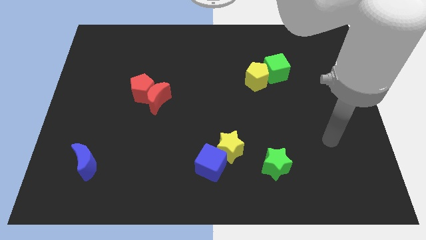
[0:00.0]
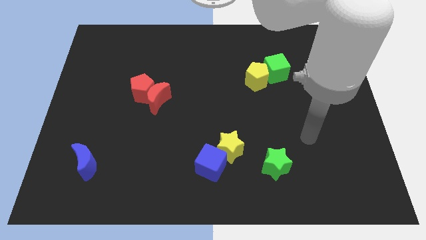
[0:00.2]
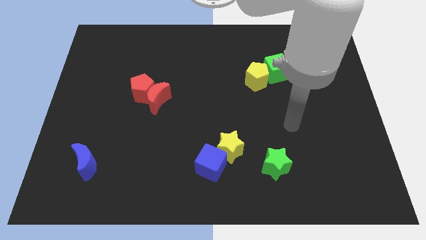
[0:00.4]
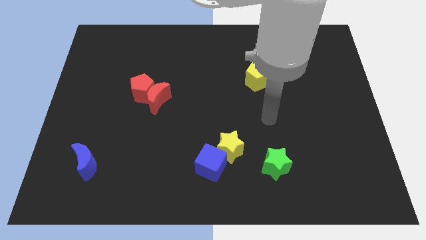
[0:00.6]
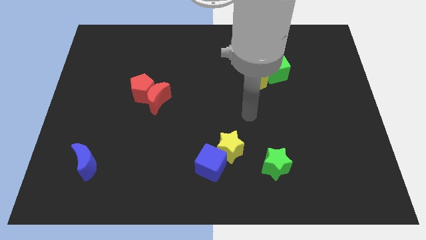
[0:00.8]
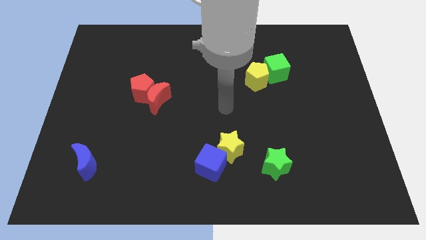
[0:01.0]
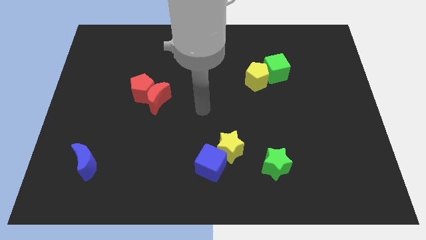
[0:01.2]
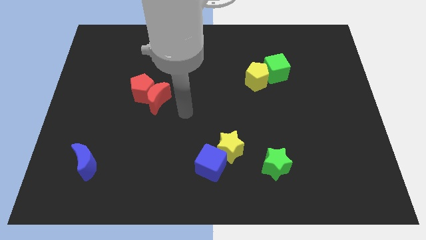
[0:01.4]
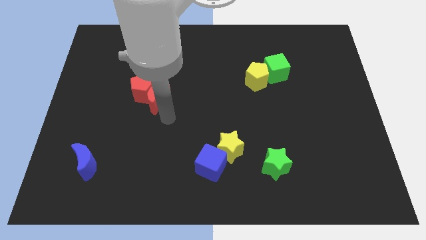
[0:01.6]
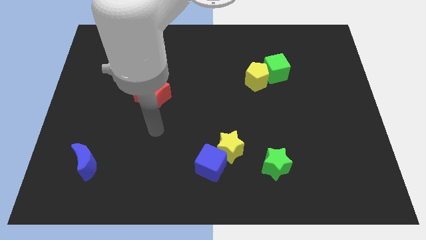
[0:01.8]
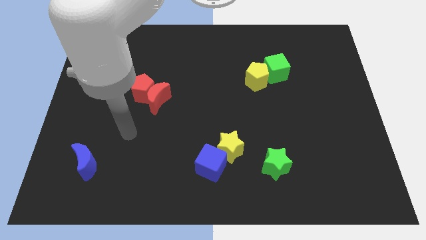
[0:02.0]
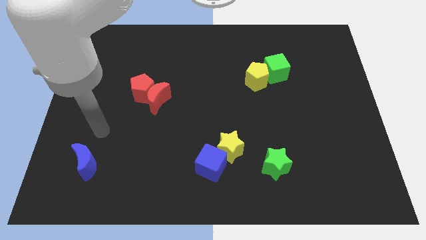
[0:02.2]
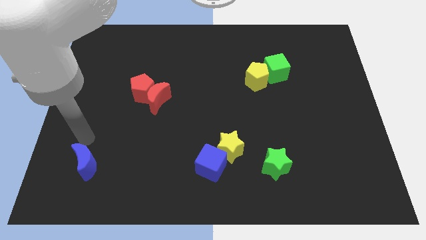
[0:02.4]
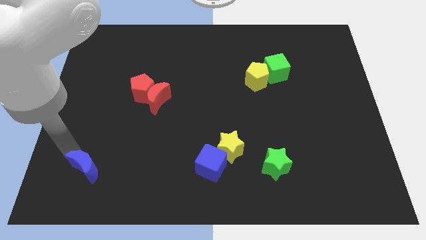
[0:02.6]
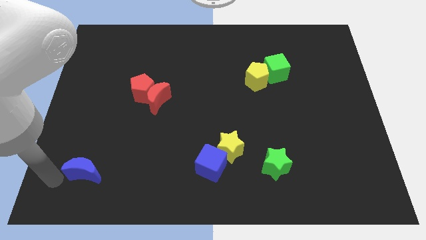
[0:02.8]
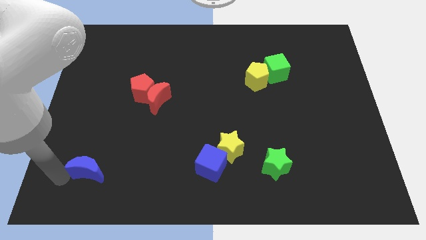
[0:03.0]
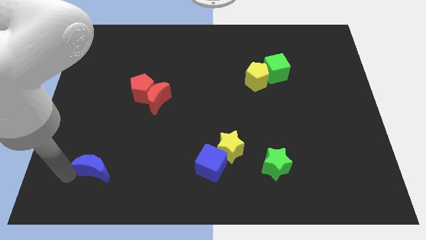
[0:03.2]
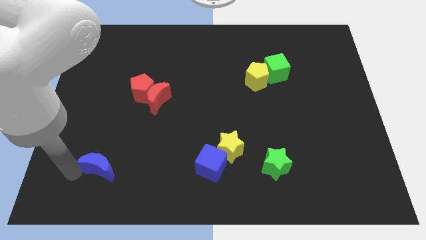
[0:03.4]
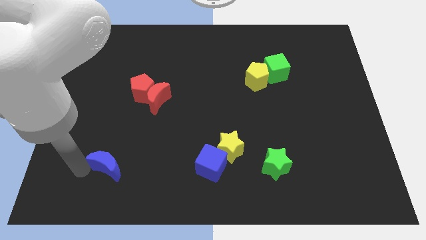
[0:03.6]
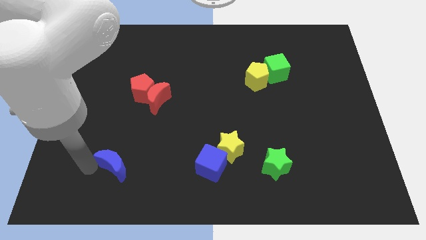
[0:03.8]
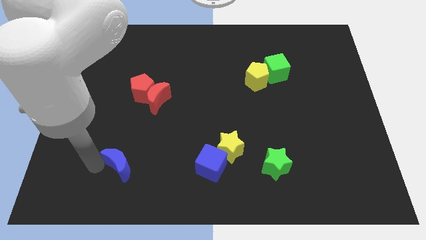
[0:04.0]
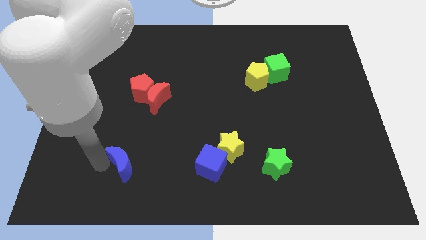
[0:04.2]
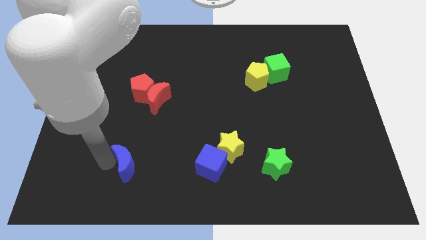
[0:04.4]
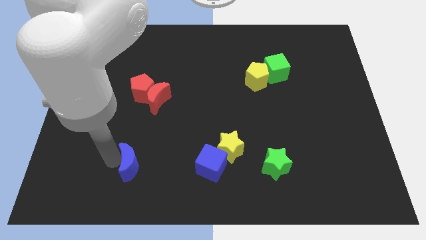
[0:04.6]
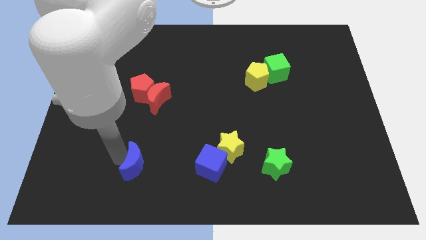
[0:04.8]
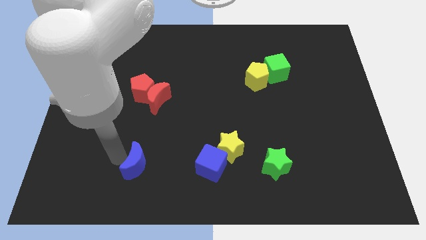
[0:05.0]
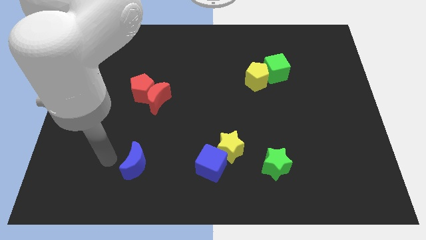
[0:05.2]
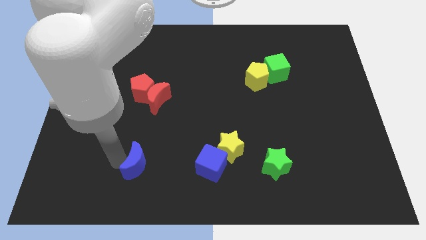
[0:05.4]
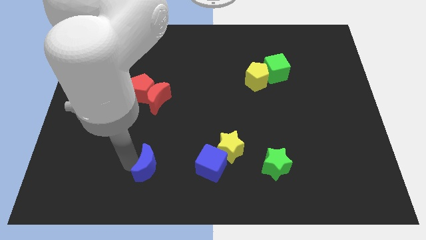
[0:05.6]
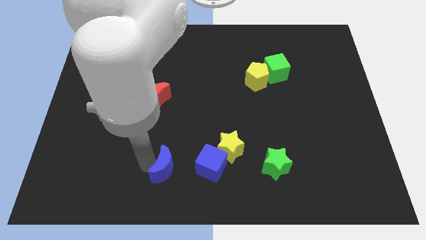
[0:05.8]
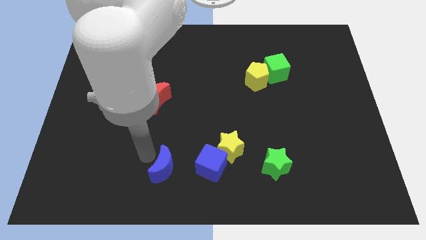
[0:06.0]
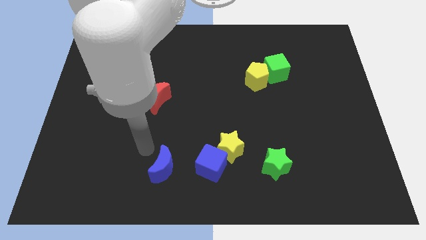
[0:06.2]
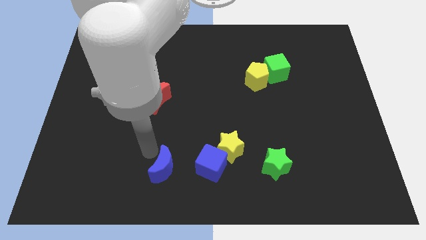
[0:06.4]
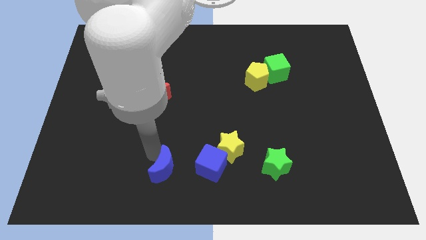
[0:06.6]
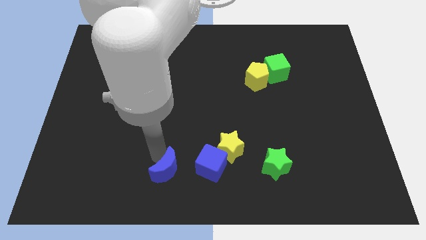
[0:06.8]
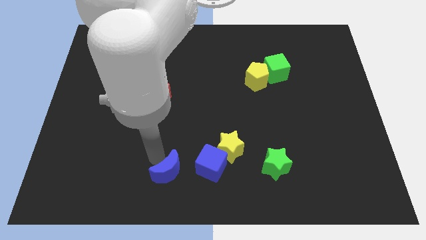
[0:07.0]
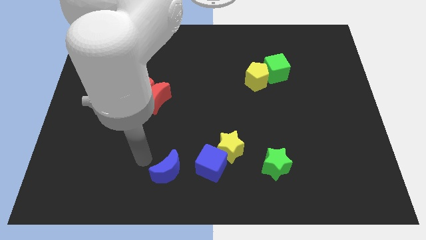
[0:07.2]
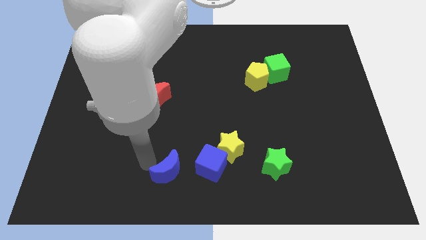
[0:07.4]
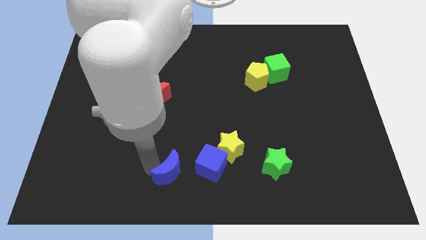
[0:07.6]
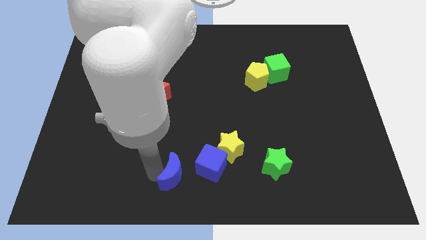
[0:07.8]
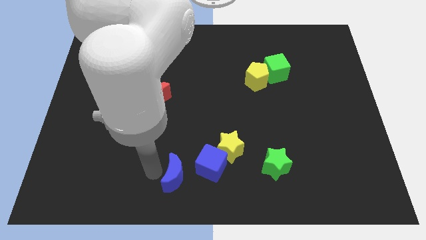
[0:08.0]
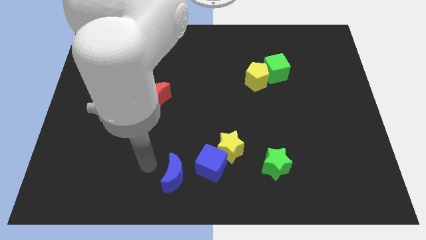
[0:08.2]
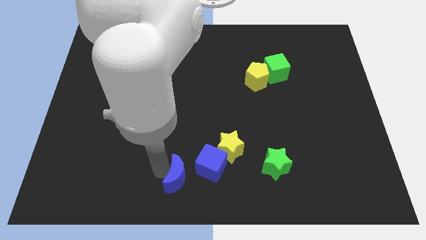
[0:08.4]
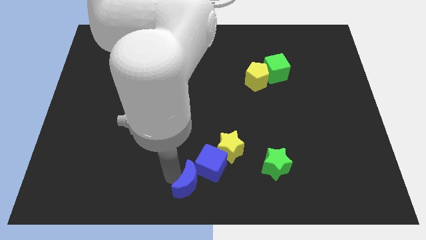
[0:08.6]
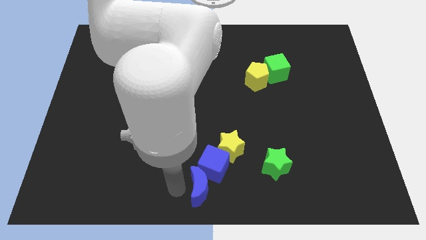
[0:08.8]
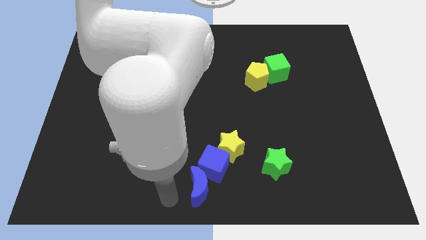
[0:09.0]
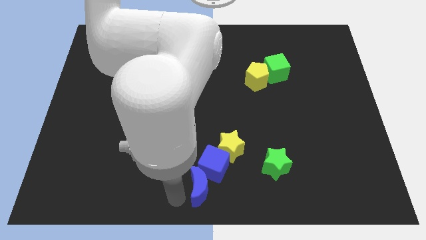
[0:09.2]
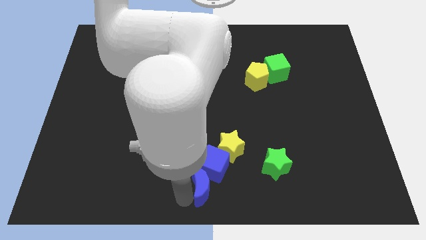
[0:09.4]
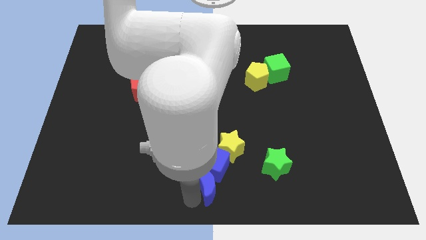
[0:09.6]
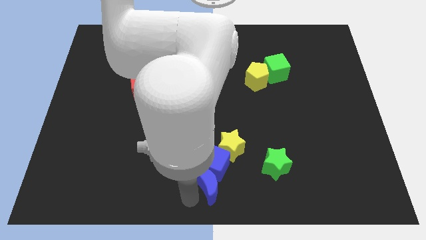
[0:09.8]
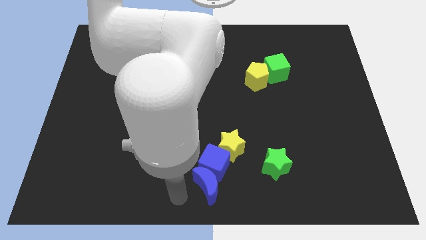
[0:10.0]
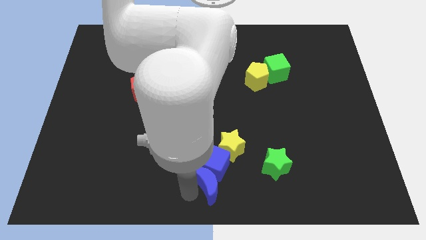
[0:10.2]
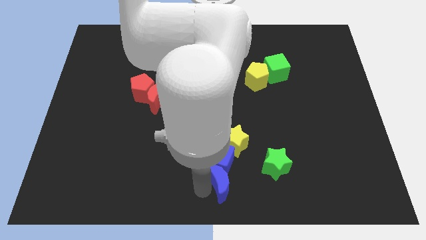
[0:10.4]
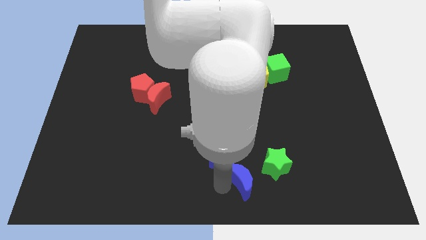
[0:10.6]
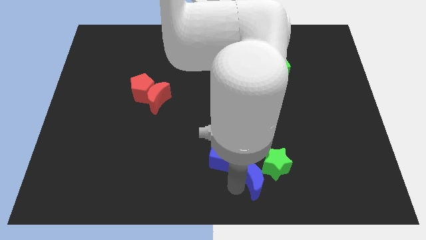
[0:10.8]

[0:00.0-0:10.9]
slide the blue moon close to the green star

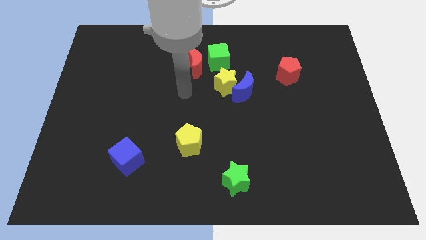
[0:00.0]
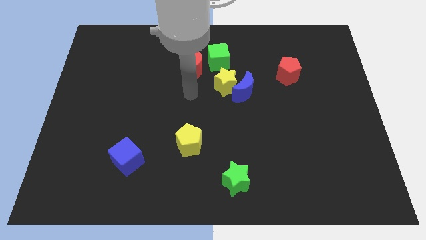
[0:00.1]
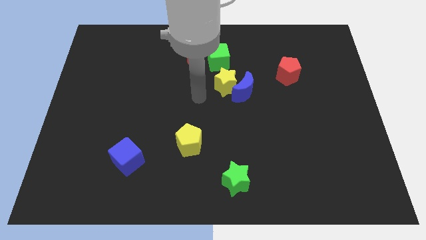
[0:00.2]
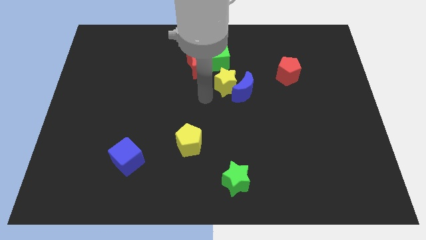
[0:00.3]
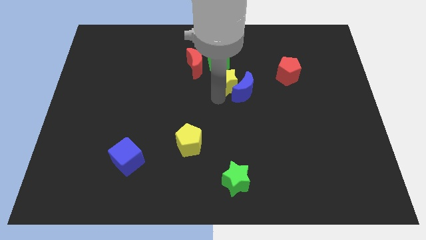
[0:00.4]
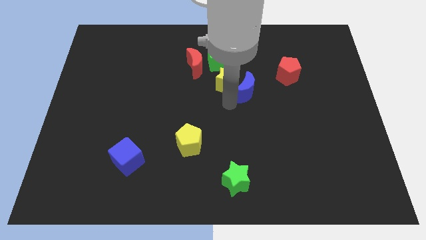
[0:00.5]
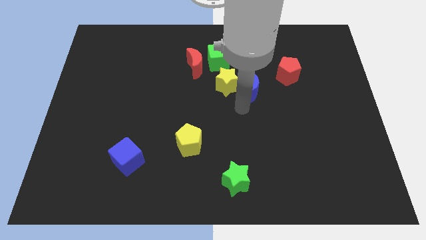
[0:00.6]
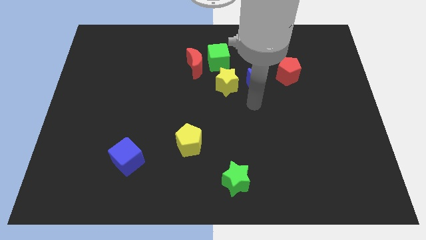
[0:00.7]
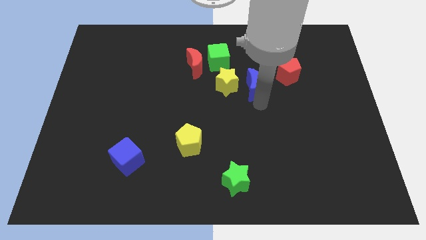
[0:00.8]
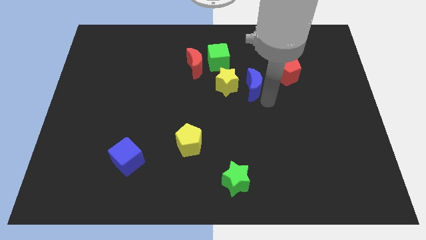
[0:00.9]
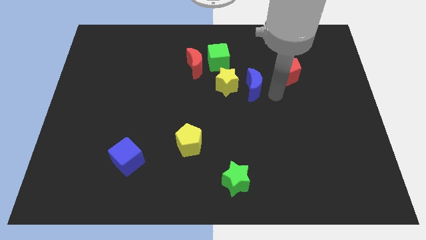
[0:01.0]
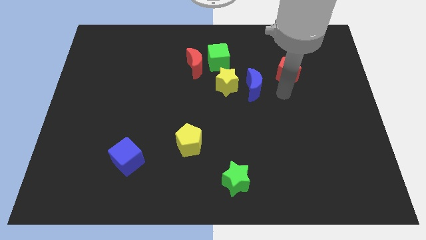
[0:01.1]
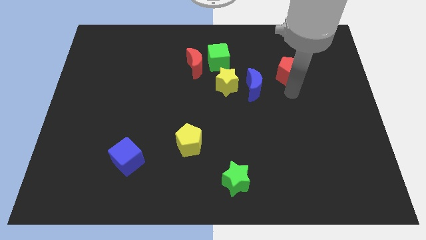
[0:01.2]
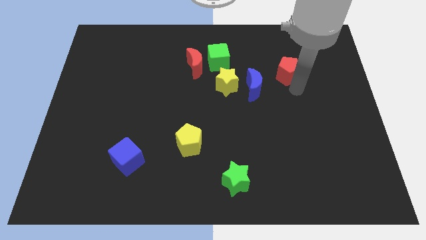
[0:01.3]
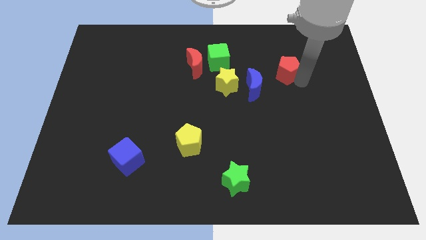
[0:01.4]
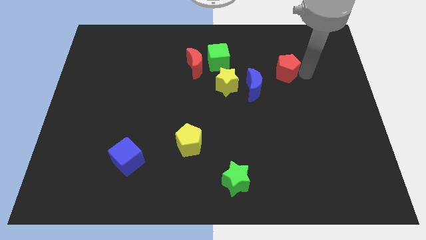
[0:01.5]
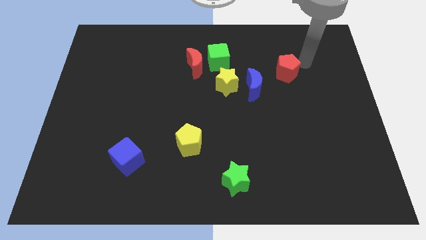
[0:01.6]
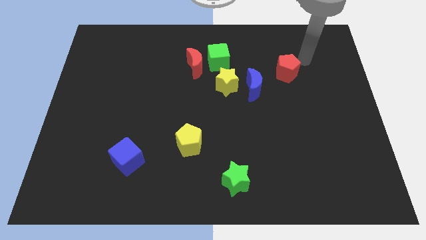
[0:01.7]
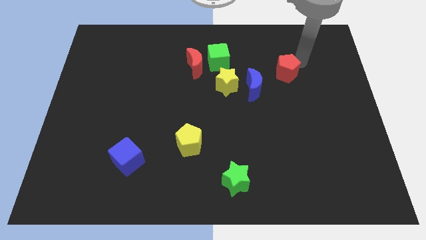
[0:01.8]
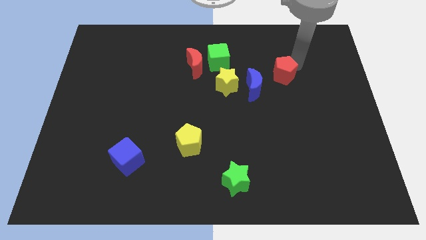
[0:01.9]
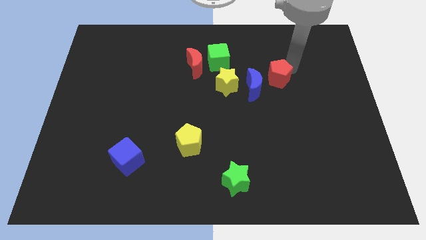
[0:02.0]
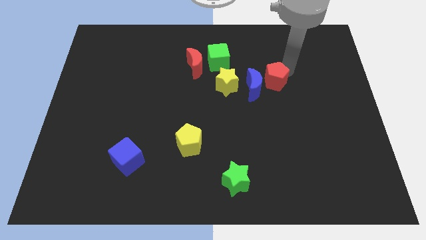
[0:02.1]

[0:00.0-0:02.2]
move the red pentagon close to the blue moon

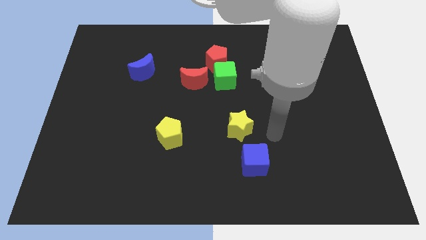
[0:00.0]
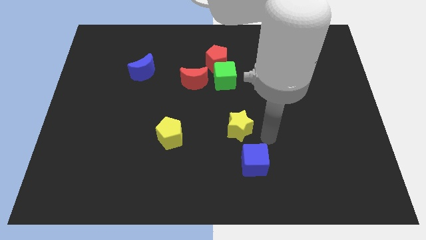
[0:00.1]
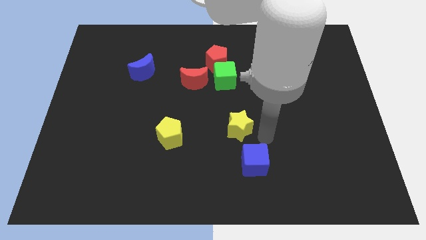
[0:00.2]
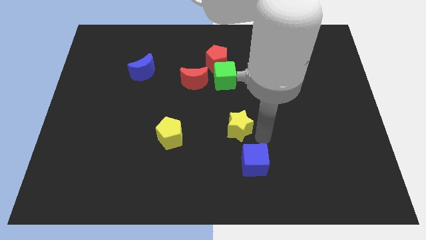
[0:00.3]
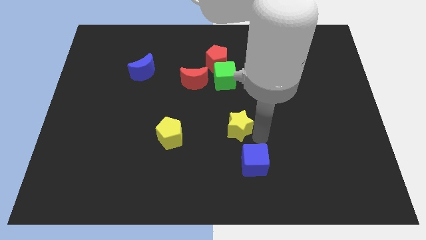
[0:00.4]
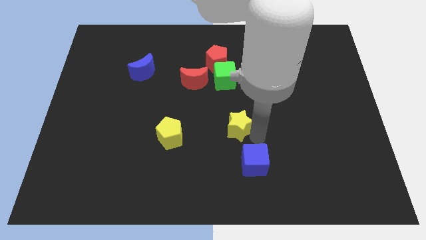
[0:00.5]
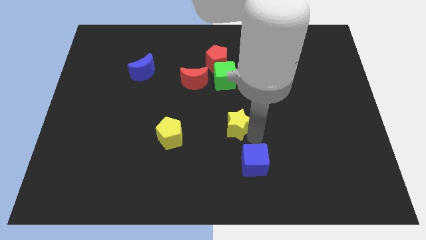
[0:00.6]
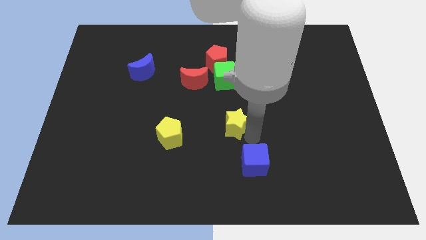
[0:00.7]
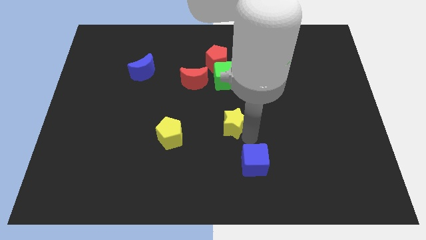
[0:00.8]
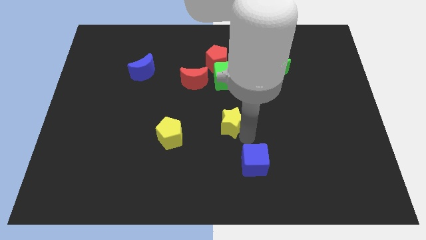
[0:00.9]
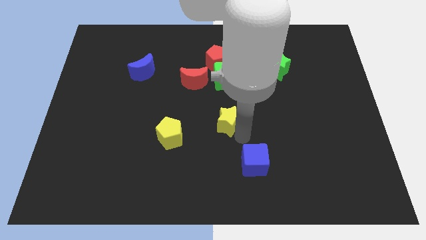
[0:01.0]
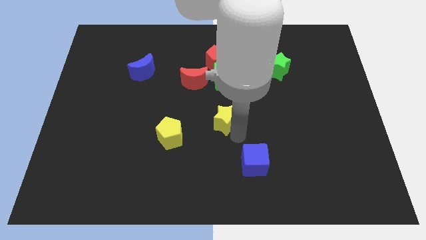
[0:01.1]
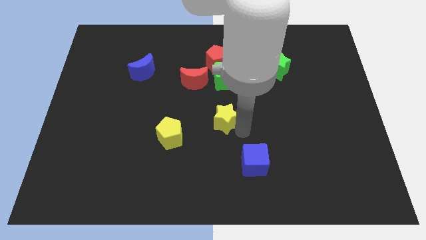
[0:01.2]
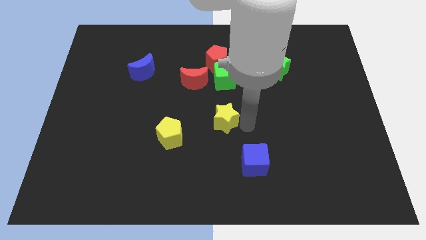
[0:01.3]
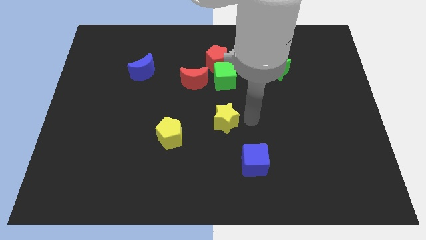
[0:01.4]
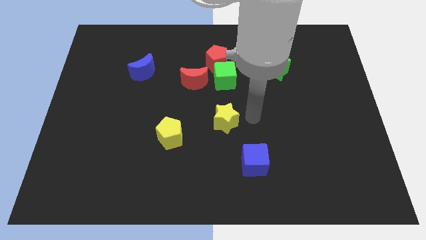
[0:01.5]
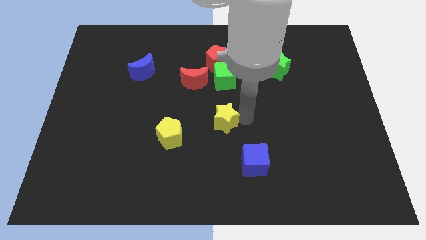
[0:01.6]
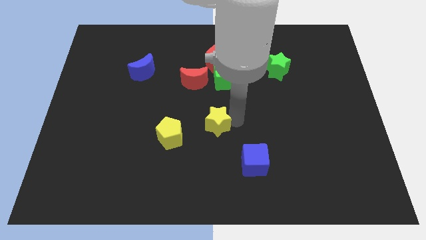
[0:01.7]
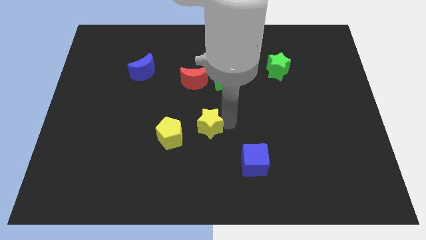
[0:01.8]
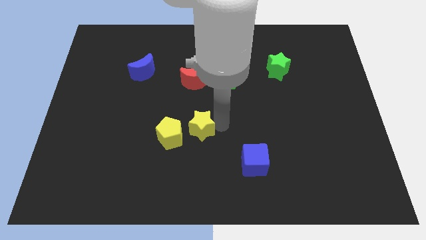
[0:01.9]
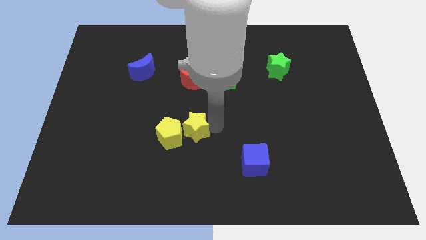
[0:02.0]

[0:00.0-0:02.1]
move the yellow star towards the yellow pentagon
